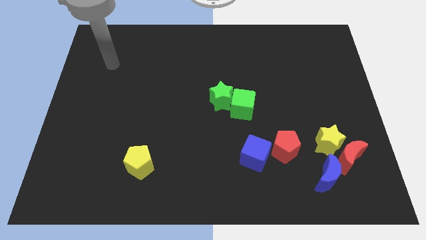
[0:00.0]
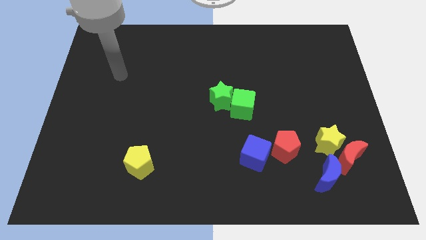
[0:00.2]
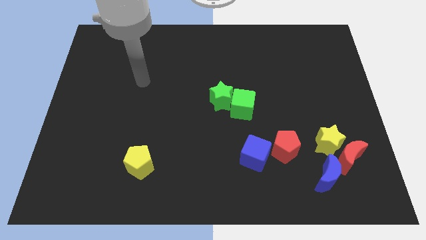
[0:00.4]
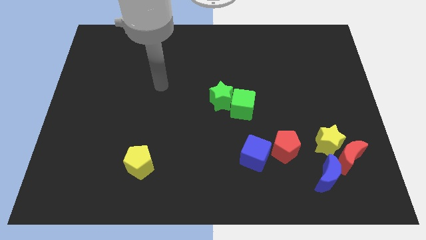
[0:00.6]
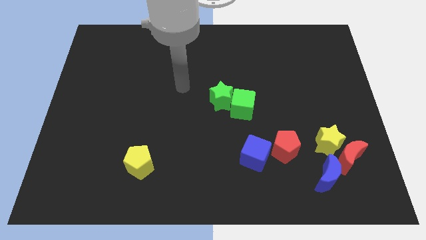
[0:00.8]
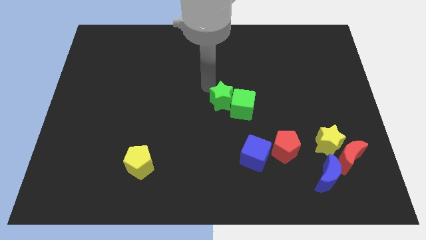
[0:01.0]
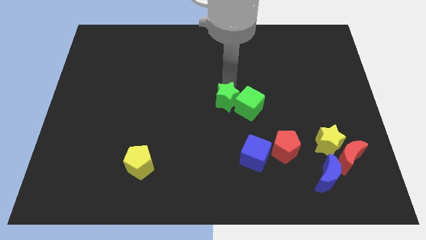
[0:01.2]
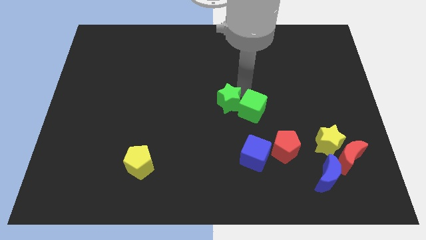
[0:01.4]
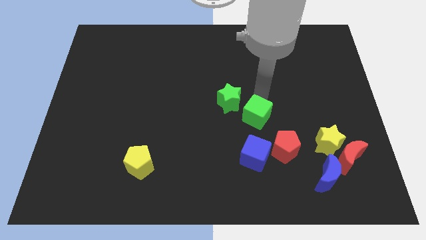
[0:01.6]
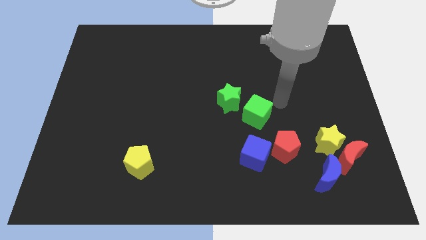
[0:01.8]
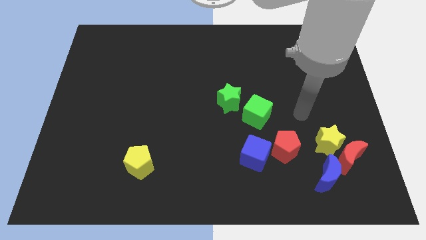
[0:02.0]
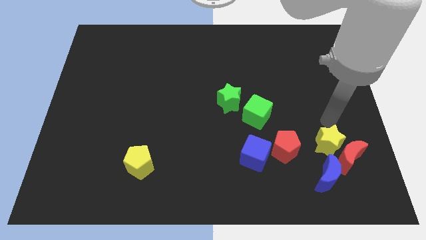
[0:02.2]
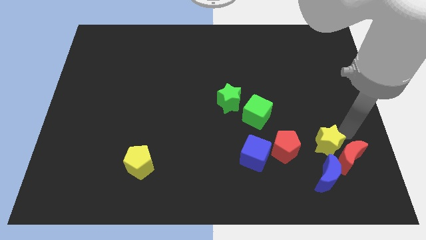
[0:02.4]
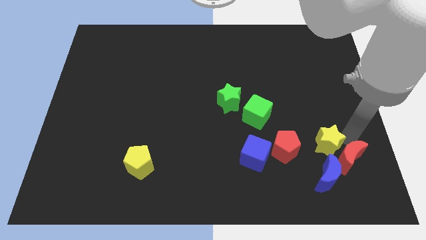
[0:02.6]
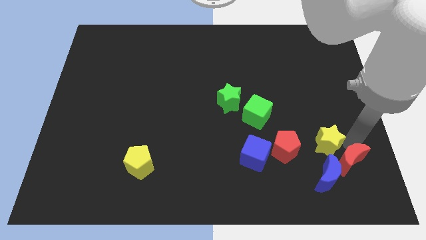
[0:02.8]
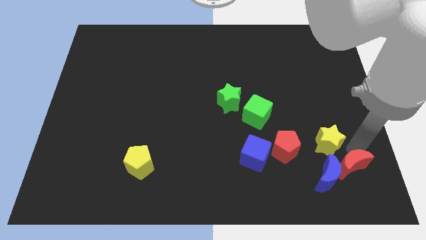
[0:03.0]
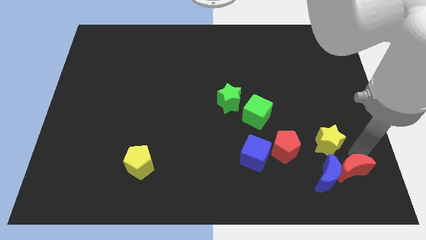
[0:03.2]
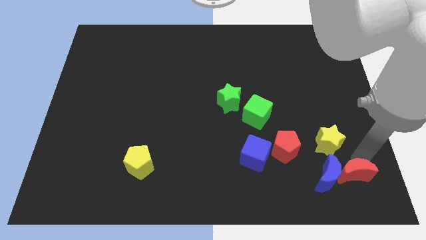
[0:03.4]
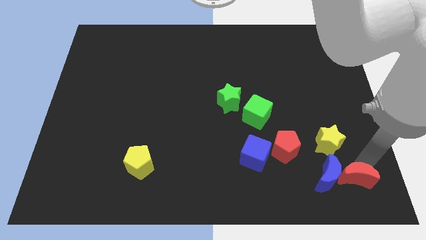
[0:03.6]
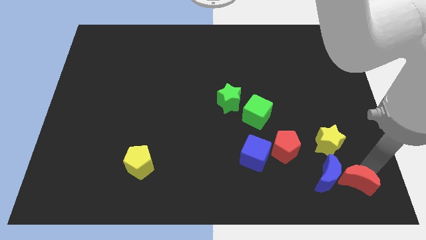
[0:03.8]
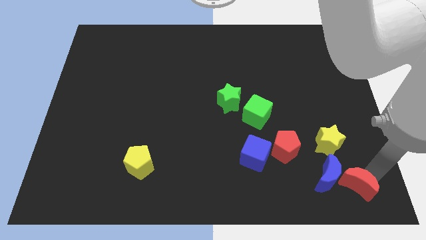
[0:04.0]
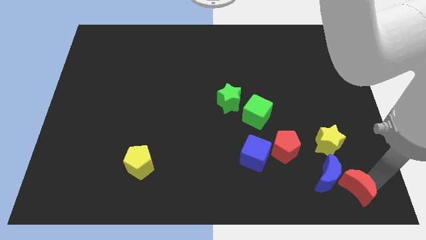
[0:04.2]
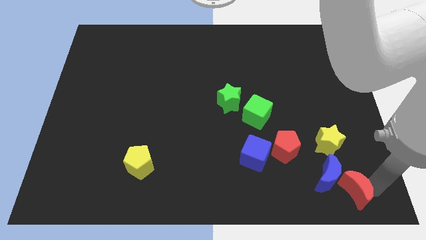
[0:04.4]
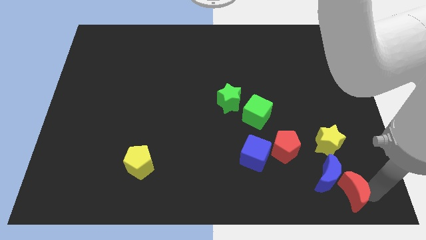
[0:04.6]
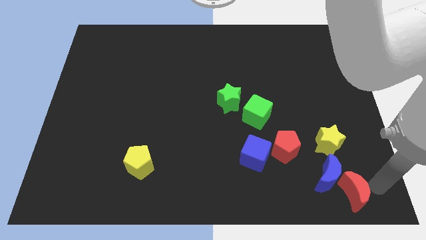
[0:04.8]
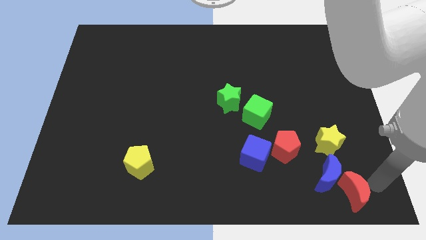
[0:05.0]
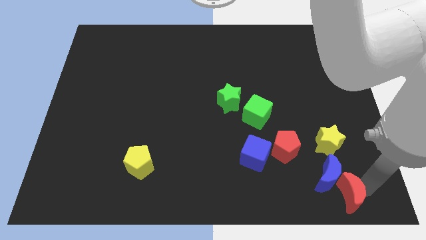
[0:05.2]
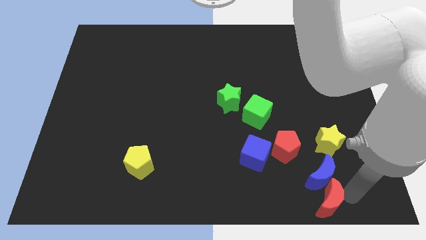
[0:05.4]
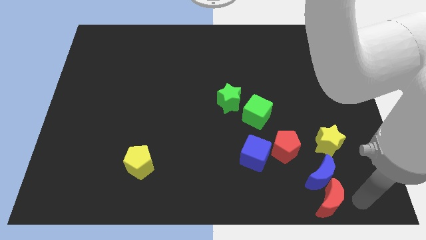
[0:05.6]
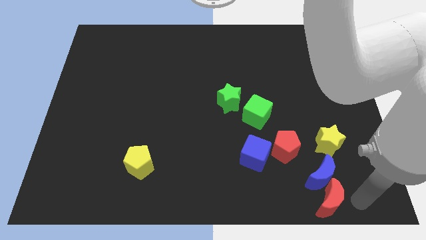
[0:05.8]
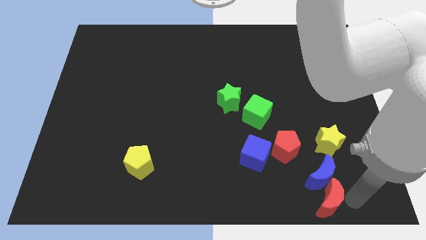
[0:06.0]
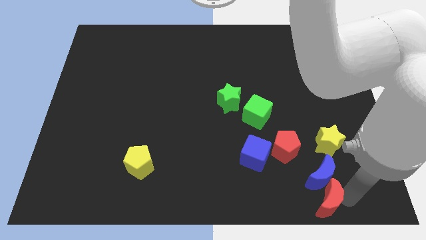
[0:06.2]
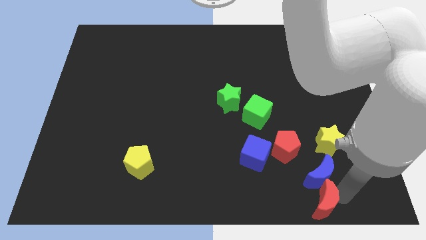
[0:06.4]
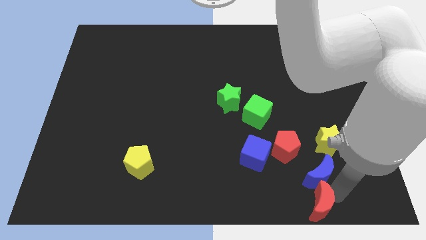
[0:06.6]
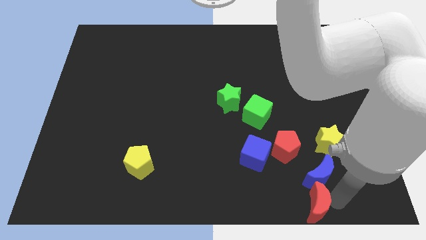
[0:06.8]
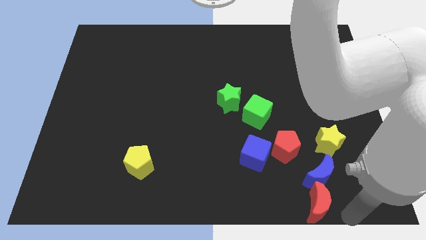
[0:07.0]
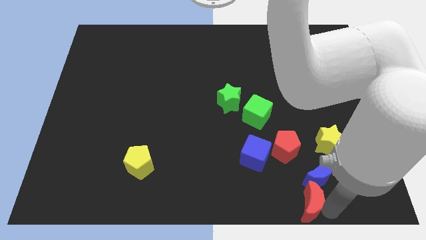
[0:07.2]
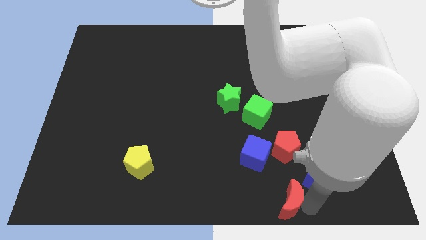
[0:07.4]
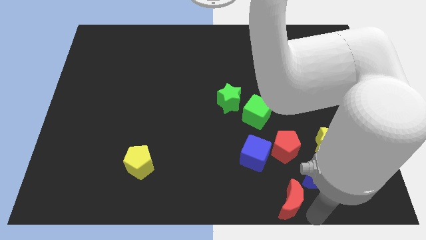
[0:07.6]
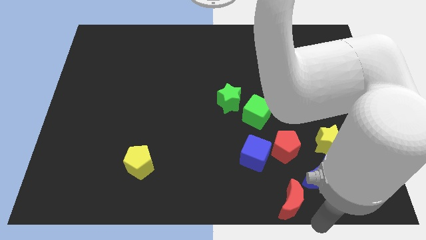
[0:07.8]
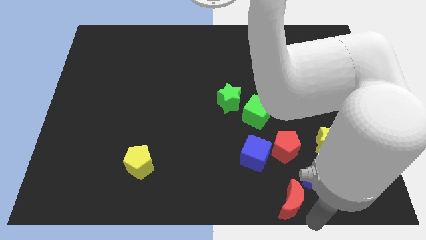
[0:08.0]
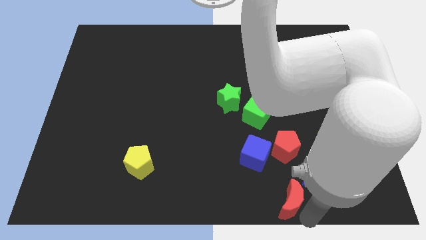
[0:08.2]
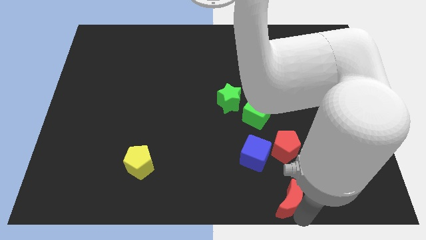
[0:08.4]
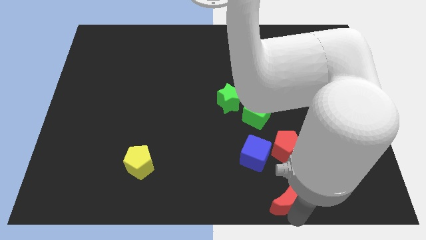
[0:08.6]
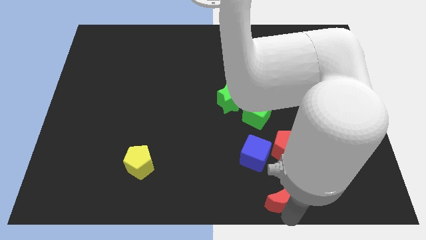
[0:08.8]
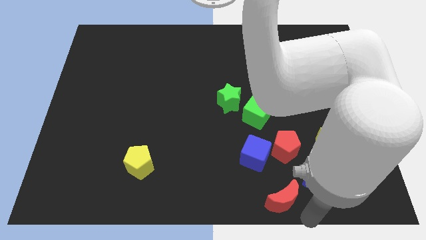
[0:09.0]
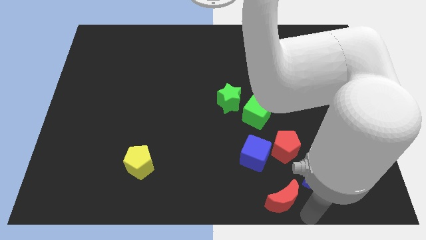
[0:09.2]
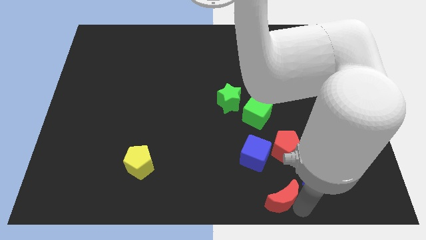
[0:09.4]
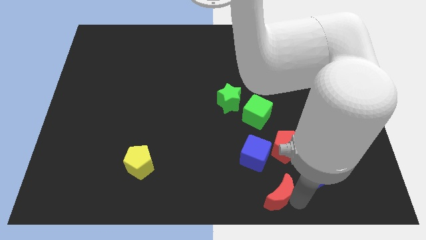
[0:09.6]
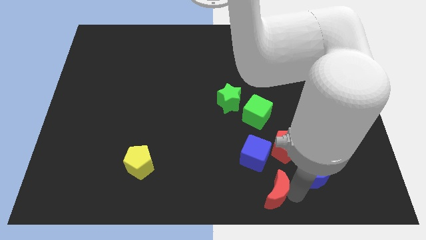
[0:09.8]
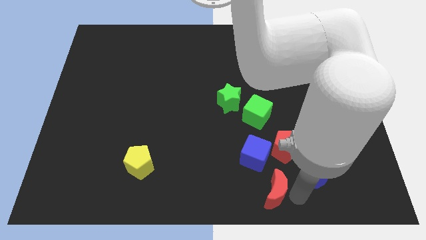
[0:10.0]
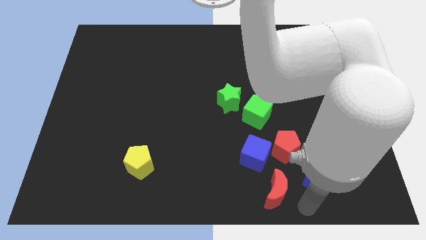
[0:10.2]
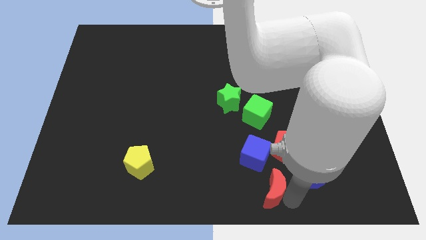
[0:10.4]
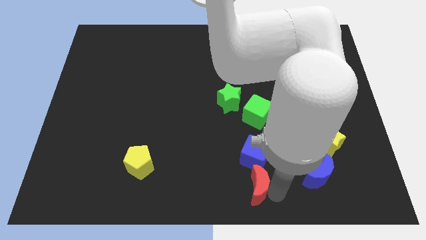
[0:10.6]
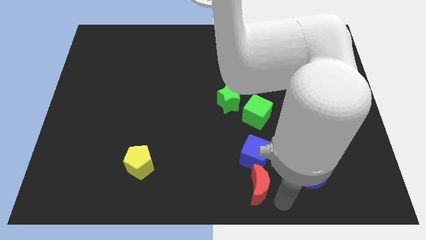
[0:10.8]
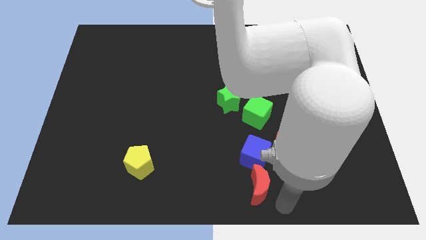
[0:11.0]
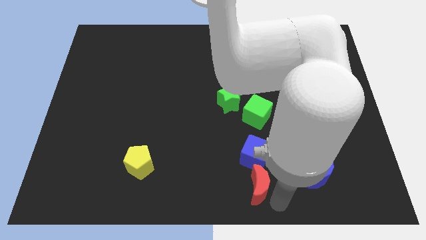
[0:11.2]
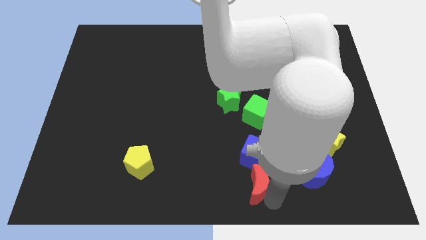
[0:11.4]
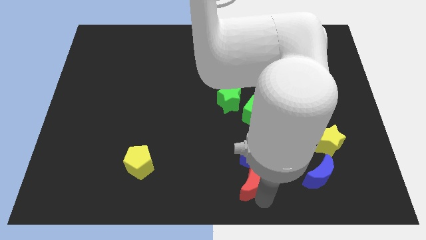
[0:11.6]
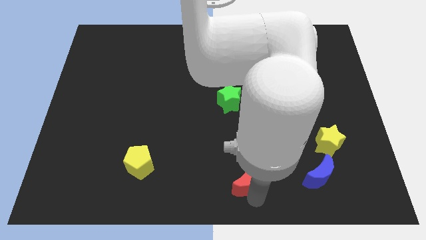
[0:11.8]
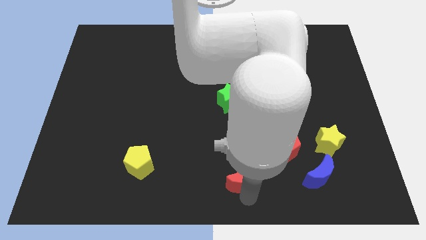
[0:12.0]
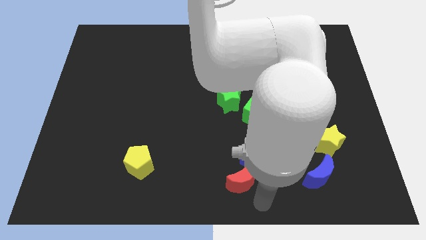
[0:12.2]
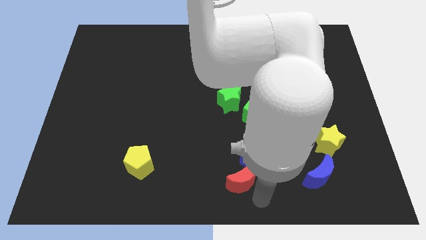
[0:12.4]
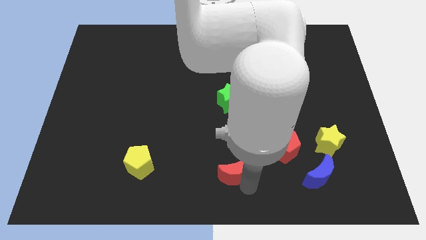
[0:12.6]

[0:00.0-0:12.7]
move the red moon to the left side of the blue cube

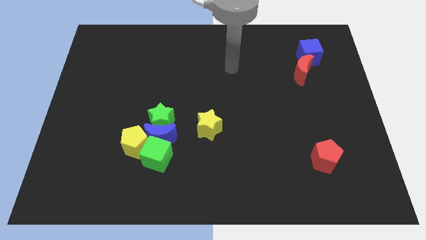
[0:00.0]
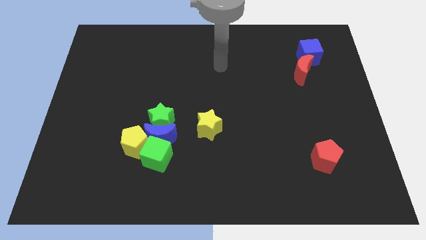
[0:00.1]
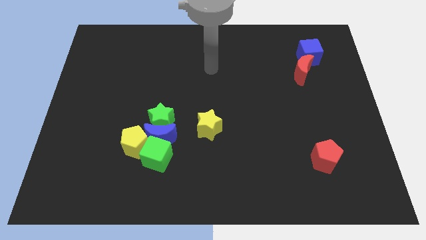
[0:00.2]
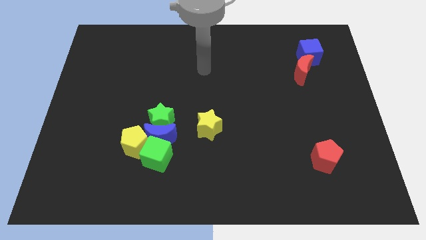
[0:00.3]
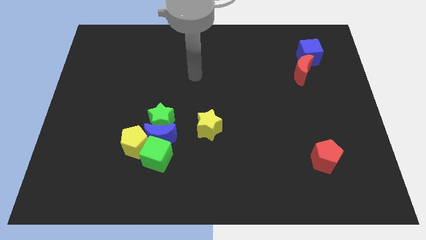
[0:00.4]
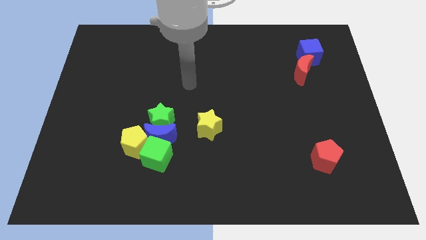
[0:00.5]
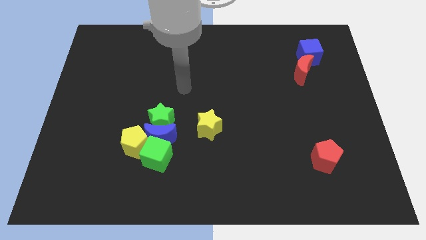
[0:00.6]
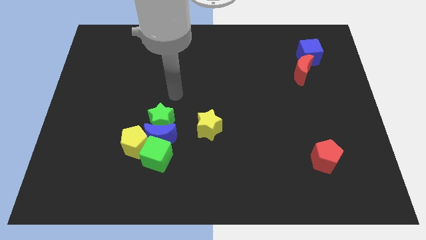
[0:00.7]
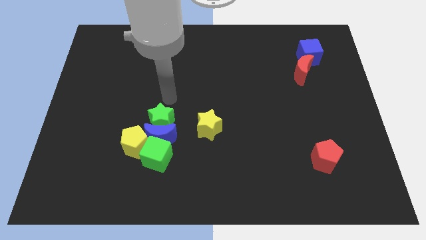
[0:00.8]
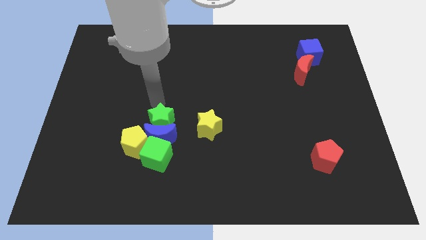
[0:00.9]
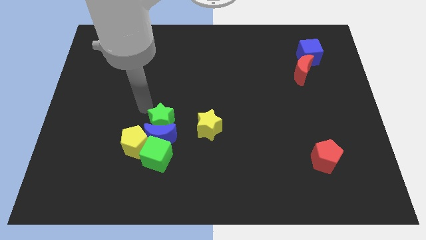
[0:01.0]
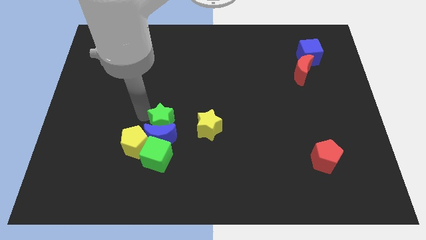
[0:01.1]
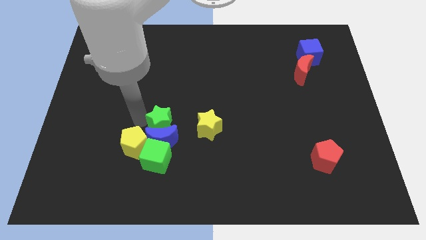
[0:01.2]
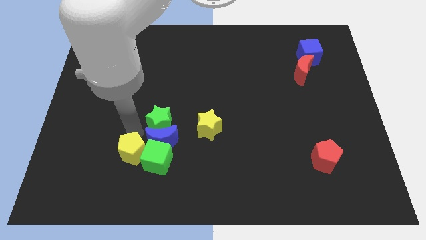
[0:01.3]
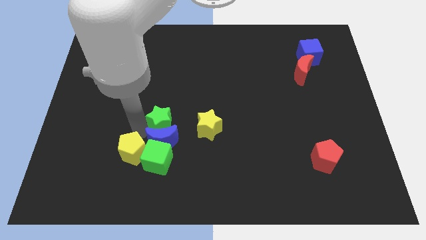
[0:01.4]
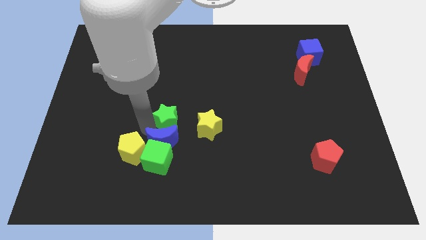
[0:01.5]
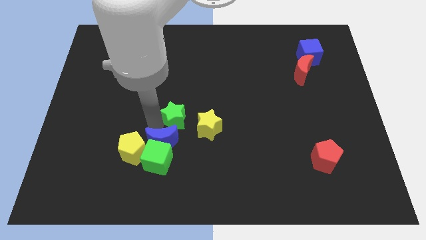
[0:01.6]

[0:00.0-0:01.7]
push the green star to the top left of the yellow star
